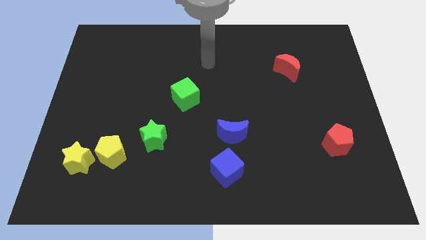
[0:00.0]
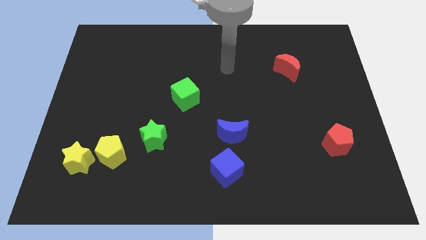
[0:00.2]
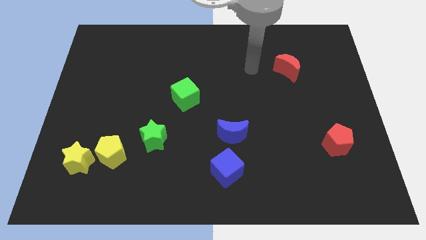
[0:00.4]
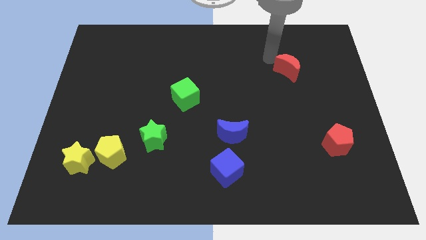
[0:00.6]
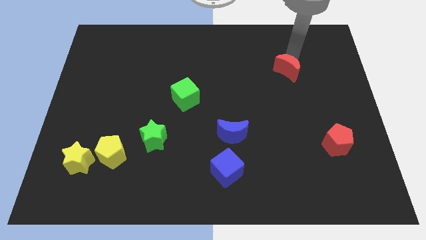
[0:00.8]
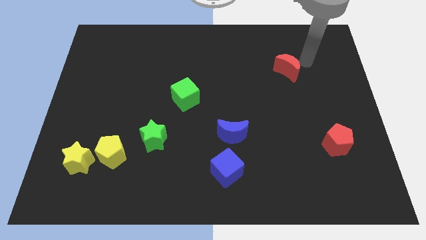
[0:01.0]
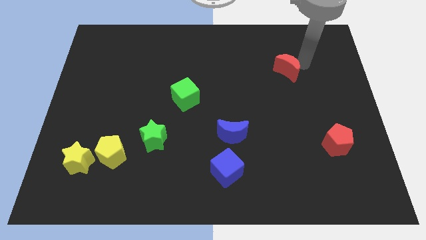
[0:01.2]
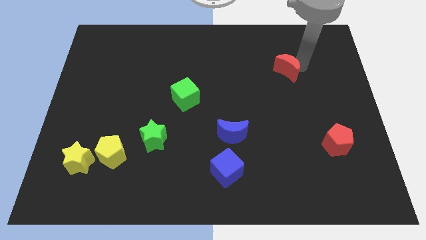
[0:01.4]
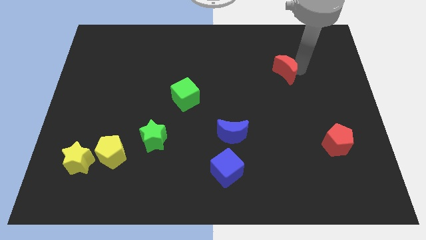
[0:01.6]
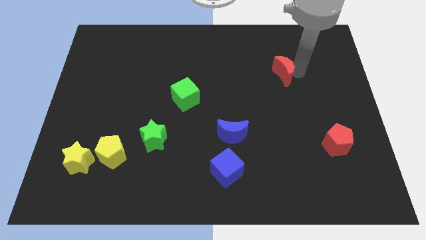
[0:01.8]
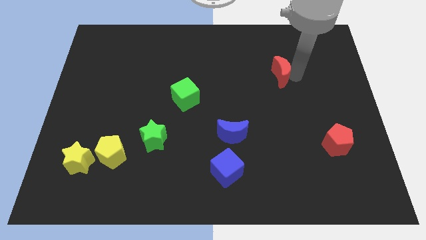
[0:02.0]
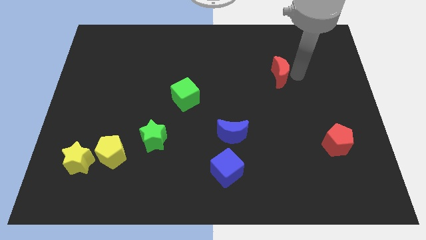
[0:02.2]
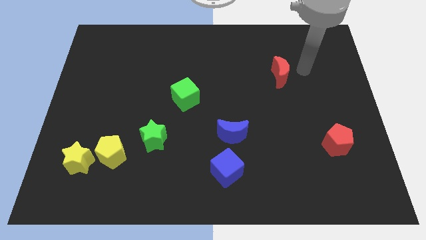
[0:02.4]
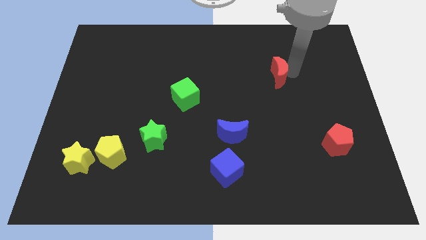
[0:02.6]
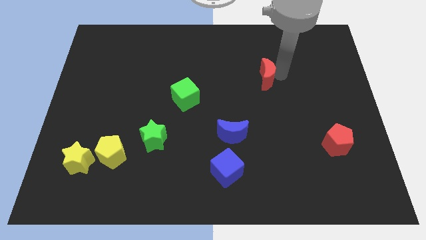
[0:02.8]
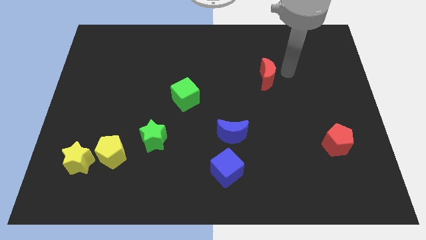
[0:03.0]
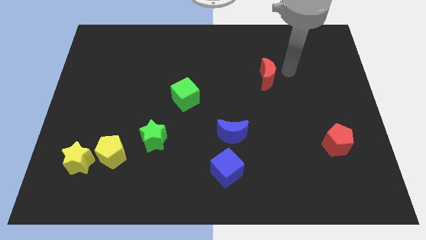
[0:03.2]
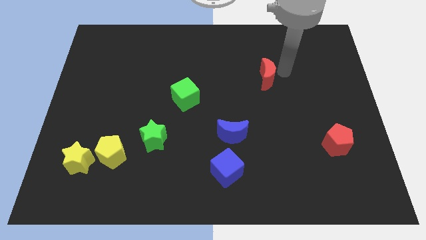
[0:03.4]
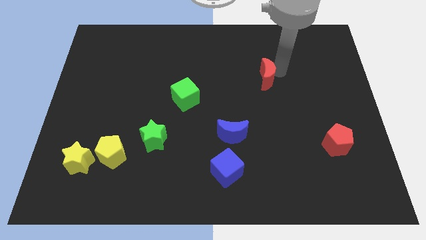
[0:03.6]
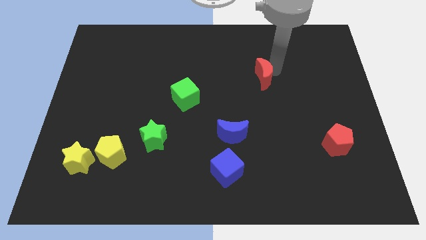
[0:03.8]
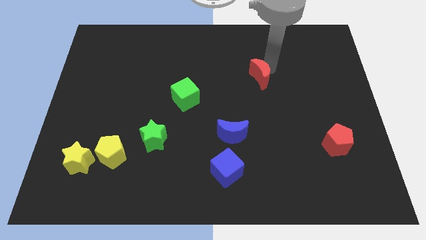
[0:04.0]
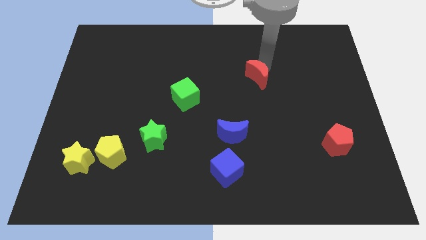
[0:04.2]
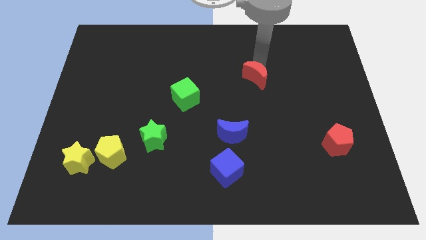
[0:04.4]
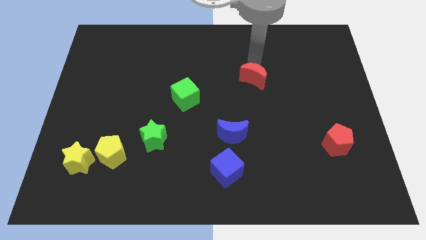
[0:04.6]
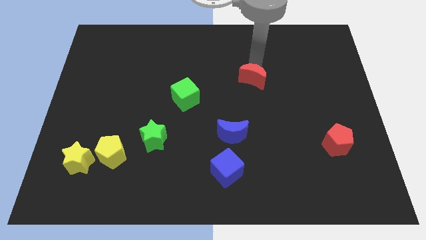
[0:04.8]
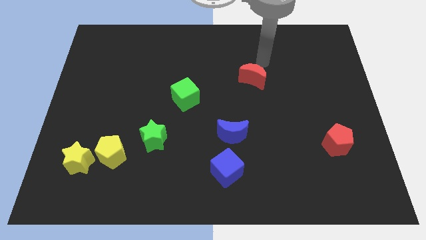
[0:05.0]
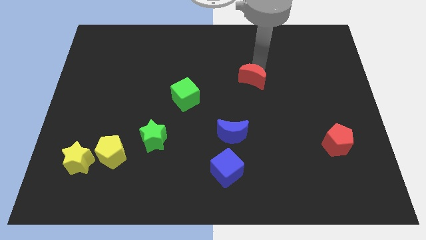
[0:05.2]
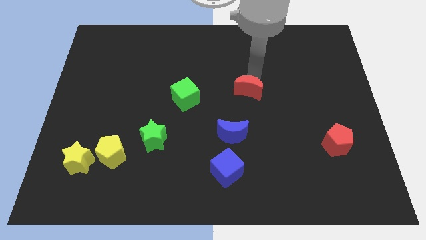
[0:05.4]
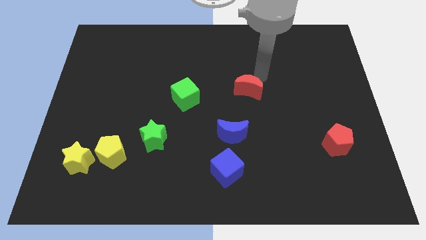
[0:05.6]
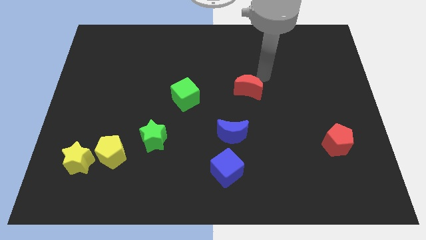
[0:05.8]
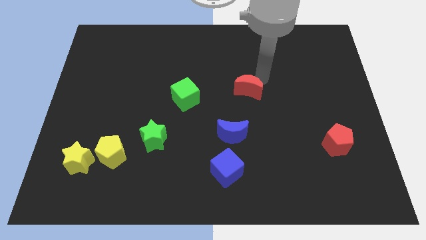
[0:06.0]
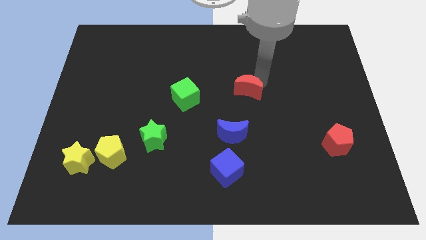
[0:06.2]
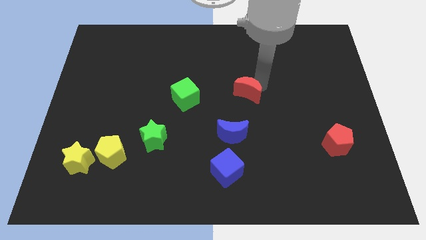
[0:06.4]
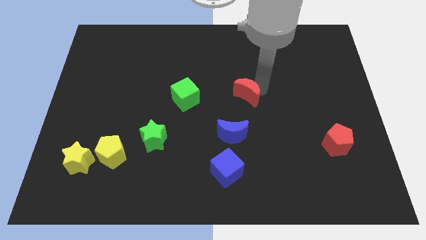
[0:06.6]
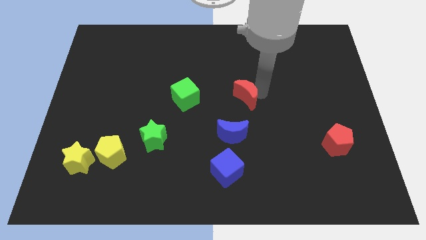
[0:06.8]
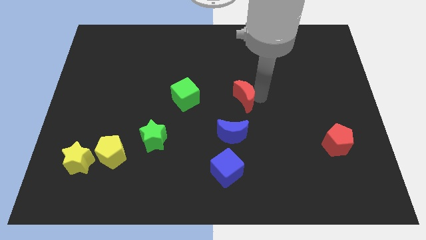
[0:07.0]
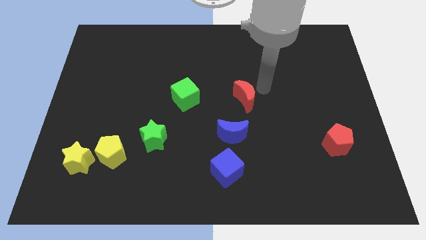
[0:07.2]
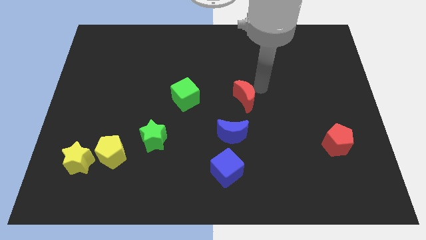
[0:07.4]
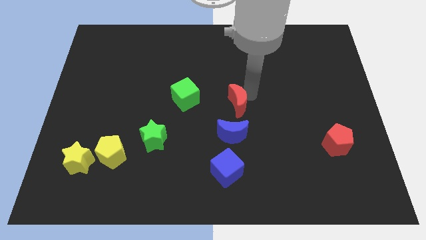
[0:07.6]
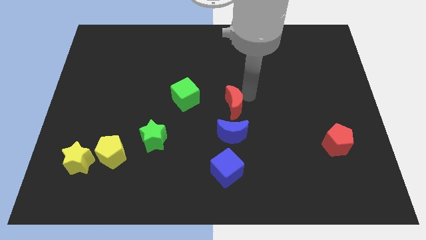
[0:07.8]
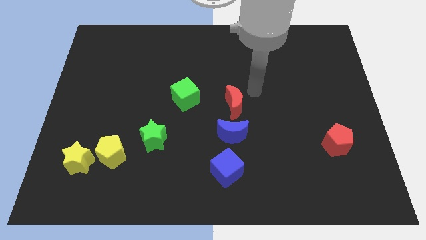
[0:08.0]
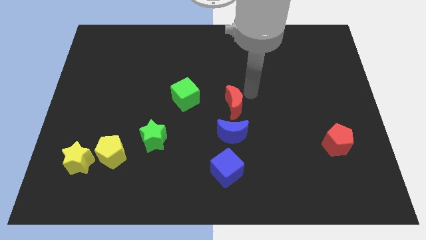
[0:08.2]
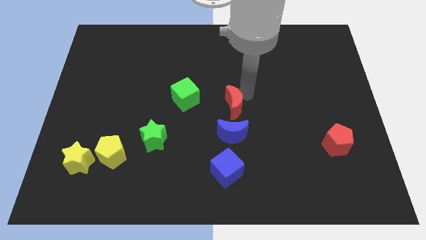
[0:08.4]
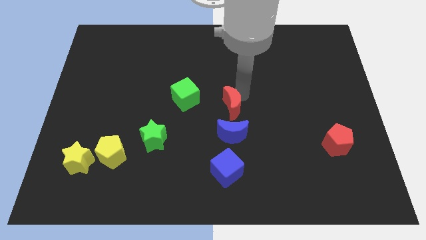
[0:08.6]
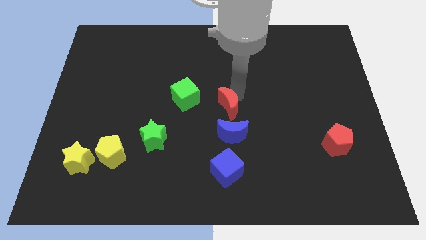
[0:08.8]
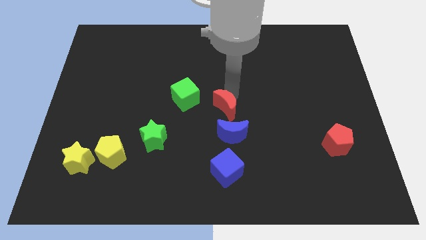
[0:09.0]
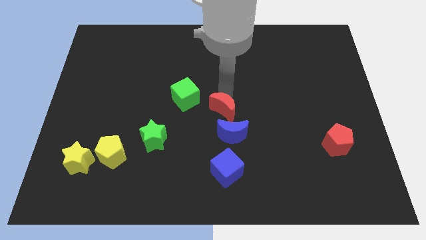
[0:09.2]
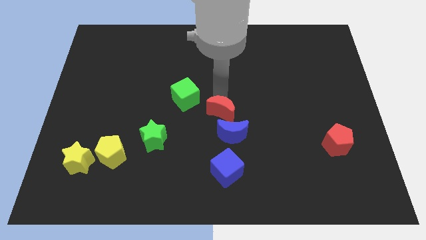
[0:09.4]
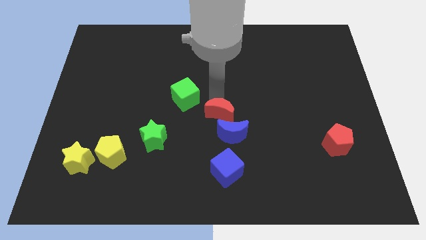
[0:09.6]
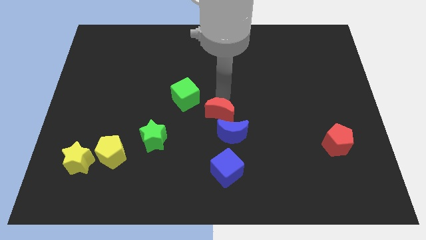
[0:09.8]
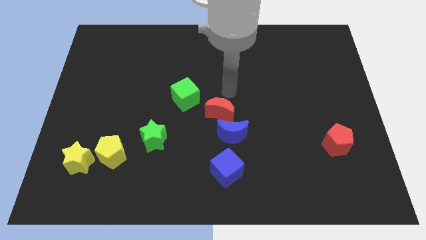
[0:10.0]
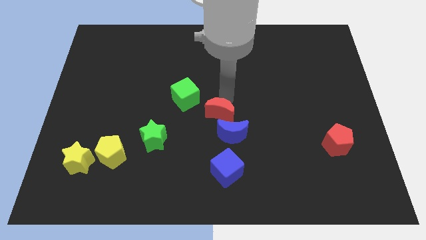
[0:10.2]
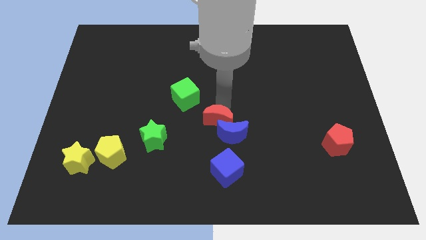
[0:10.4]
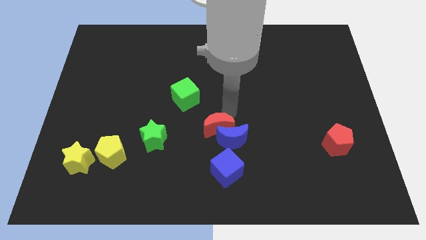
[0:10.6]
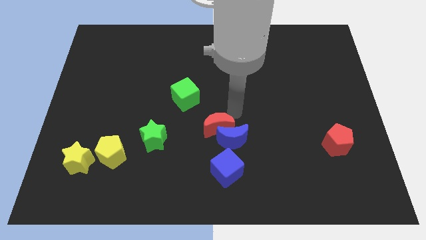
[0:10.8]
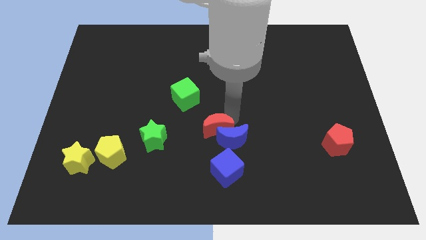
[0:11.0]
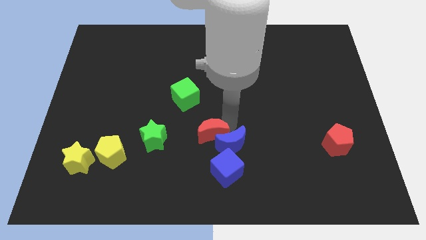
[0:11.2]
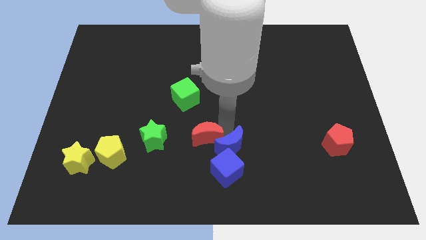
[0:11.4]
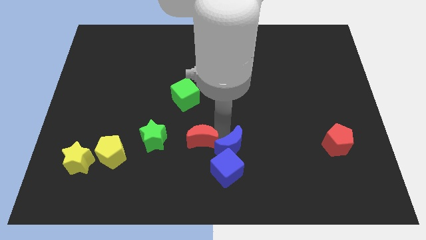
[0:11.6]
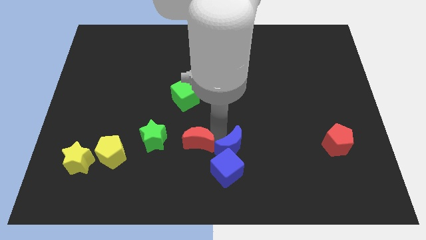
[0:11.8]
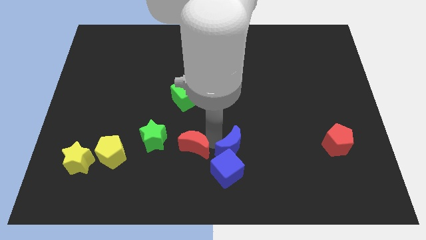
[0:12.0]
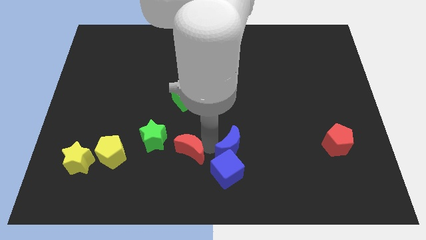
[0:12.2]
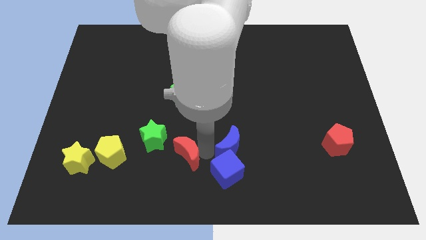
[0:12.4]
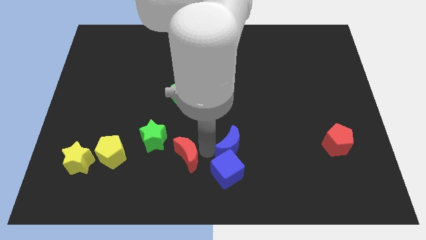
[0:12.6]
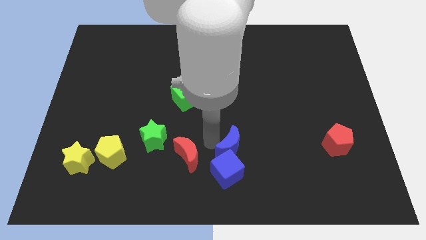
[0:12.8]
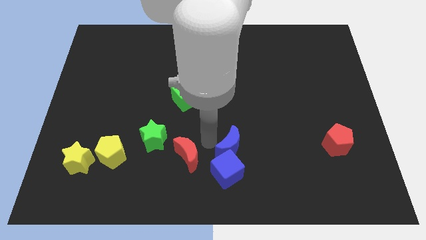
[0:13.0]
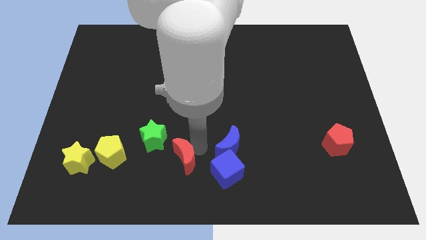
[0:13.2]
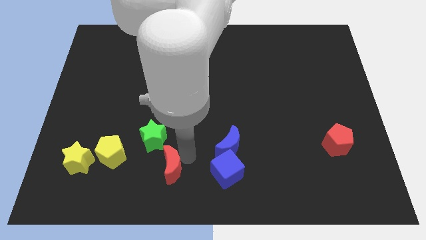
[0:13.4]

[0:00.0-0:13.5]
move the red moon below the green star

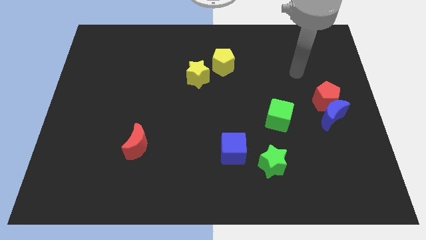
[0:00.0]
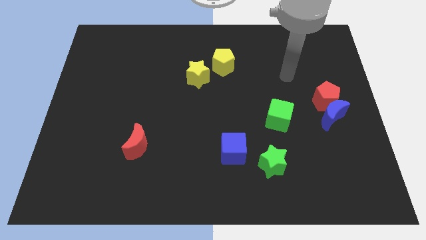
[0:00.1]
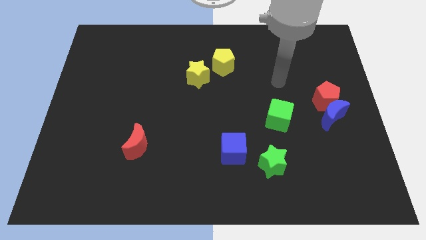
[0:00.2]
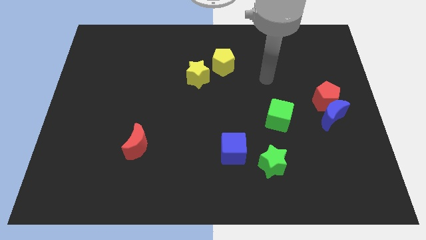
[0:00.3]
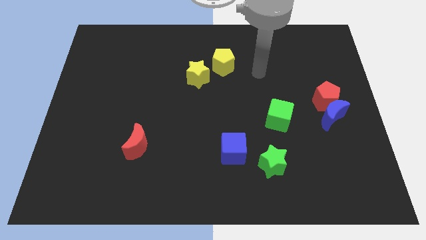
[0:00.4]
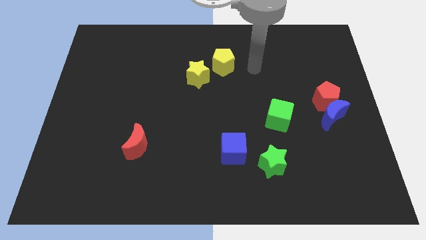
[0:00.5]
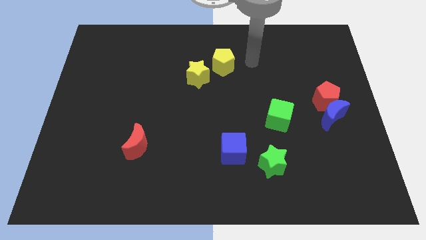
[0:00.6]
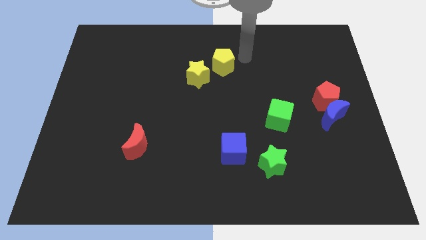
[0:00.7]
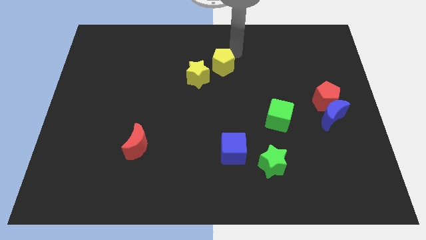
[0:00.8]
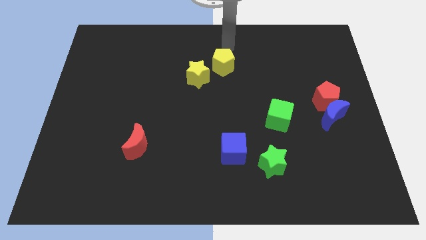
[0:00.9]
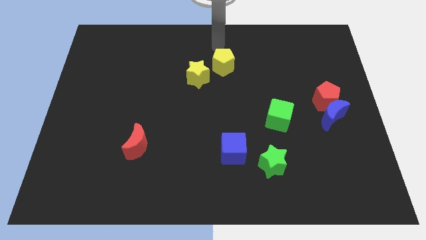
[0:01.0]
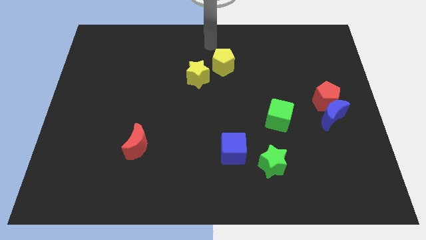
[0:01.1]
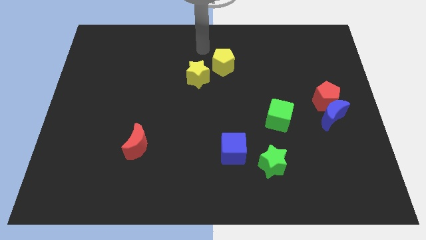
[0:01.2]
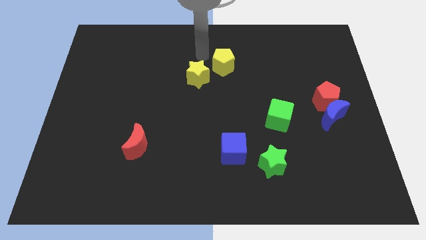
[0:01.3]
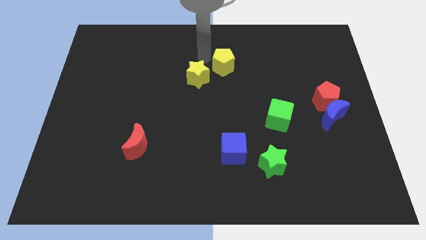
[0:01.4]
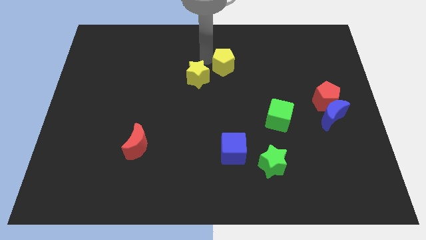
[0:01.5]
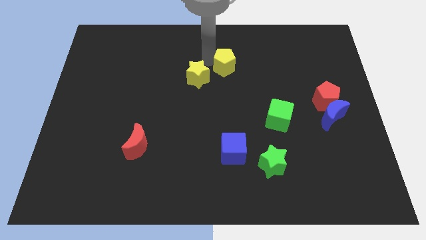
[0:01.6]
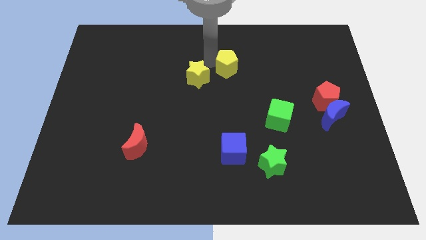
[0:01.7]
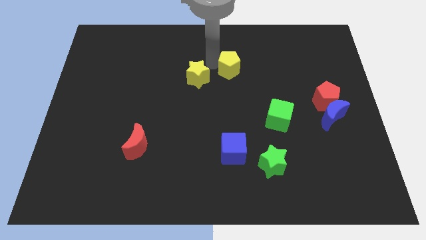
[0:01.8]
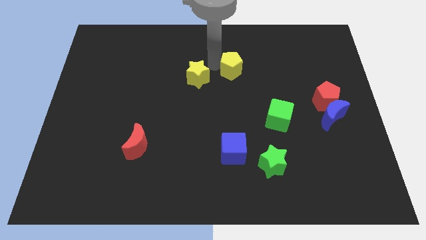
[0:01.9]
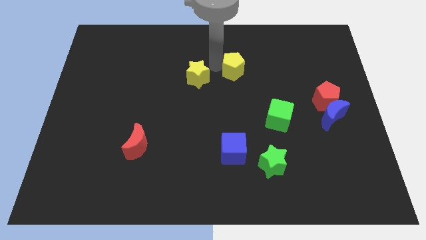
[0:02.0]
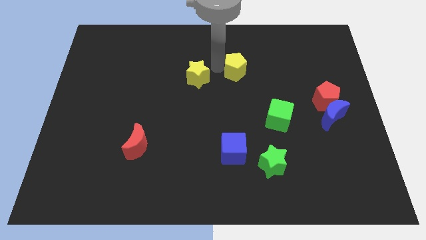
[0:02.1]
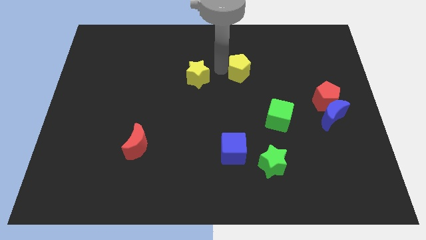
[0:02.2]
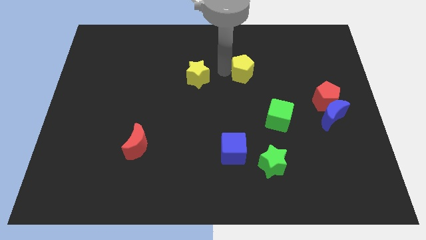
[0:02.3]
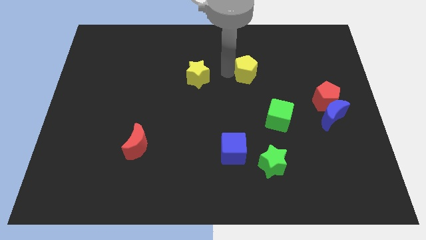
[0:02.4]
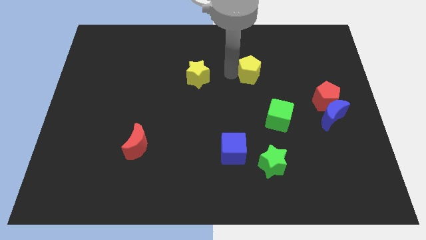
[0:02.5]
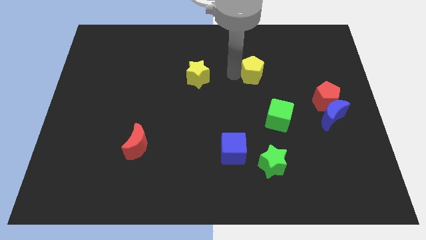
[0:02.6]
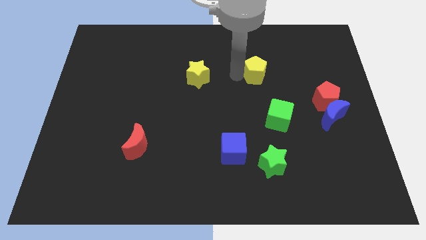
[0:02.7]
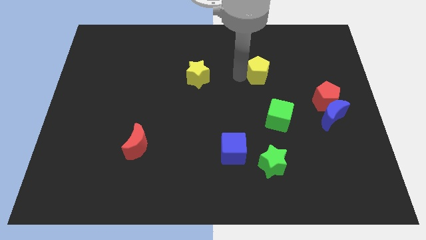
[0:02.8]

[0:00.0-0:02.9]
push the yellow pentagon above the green cube
